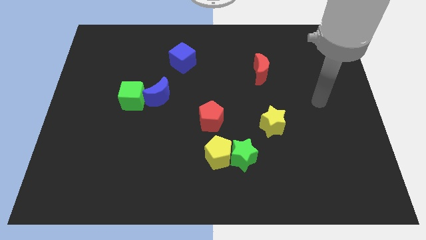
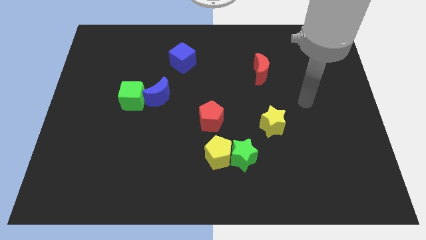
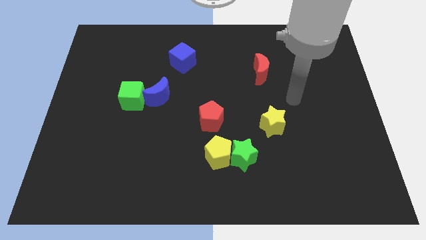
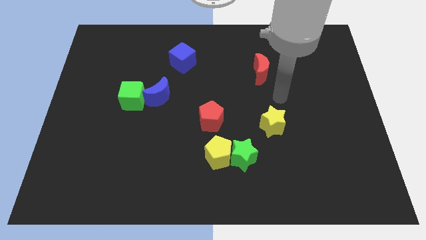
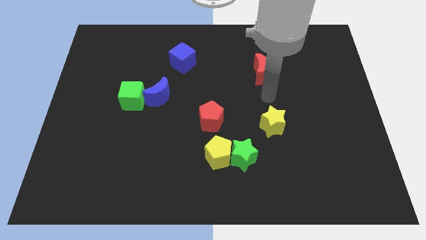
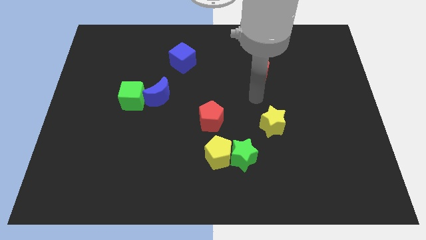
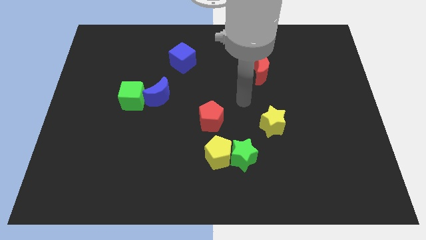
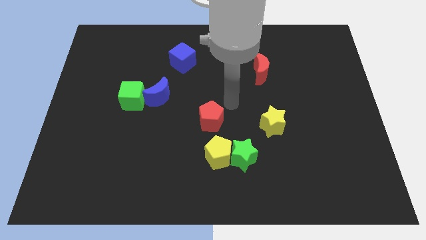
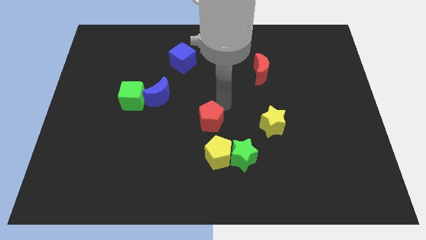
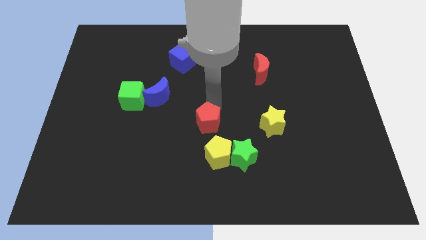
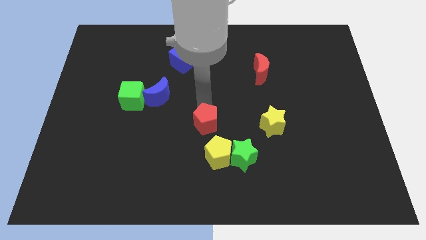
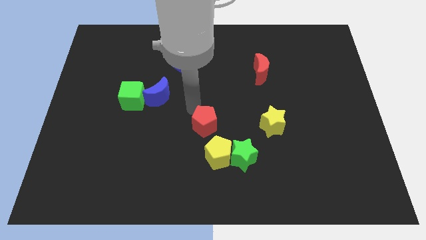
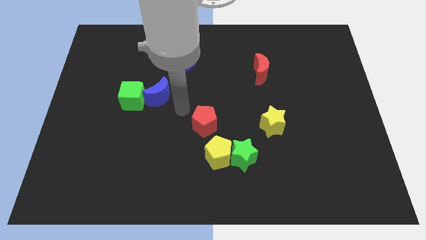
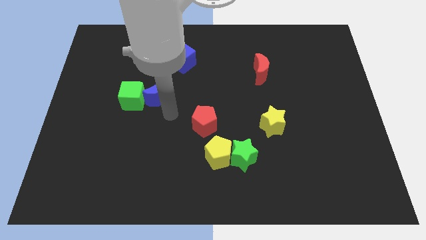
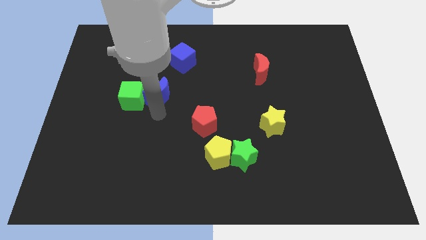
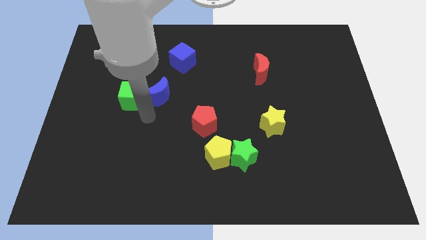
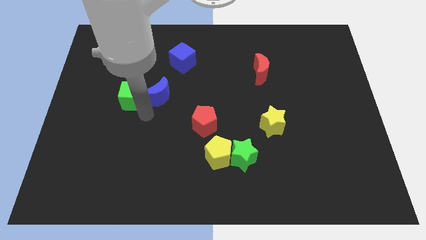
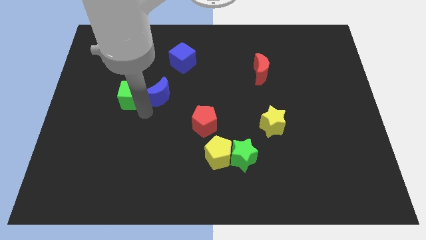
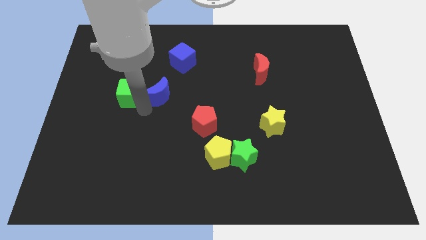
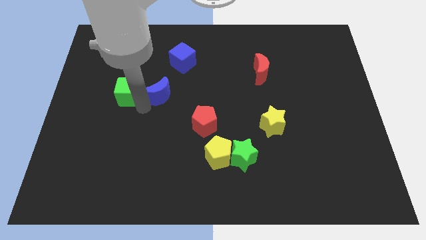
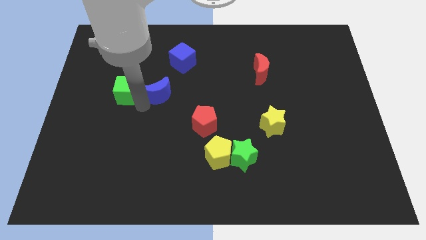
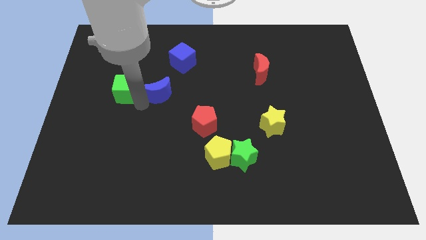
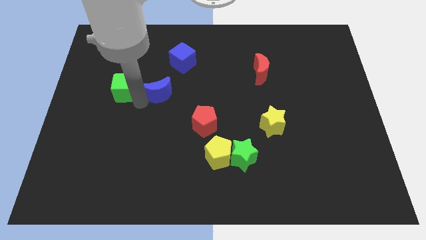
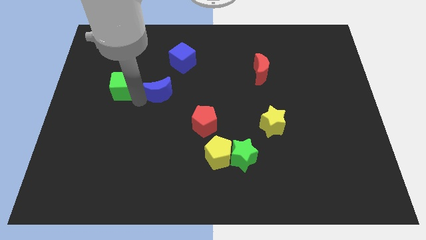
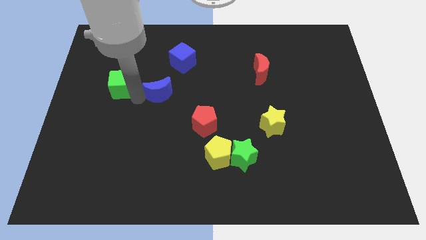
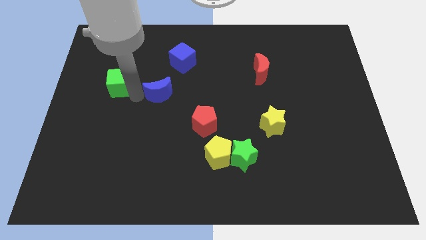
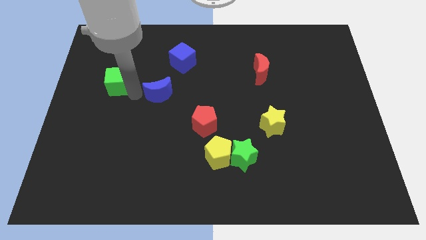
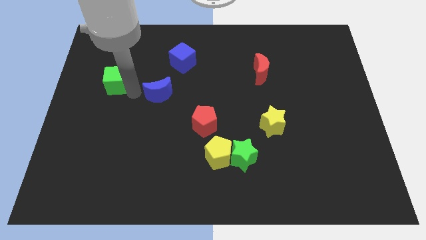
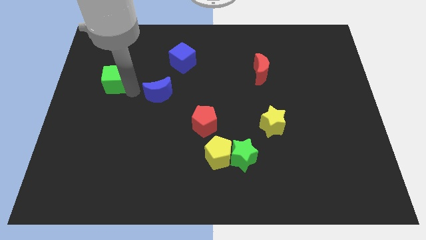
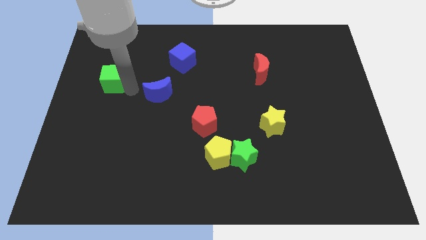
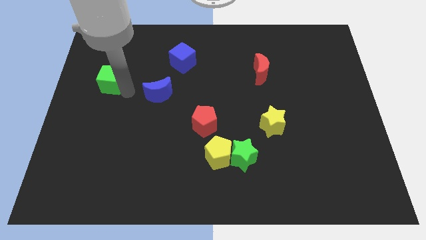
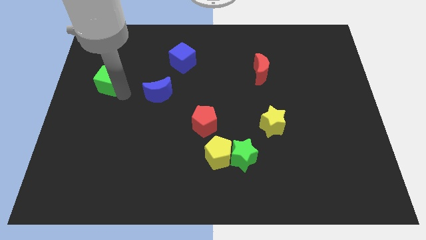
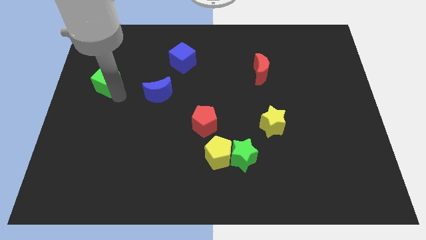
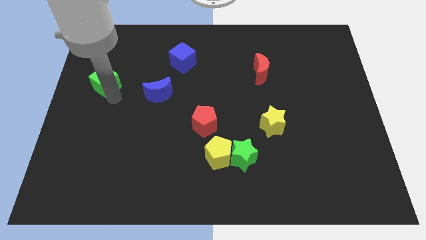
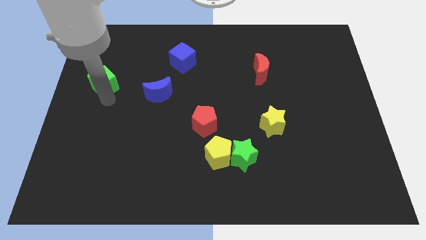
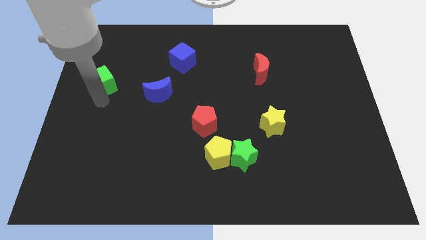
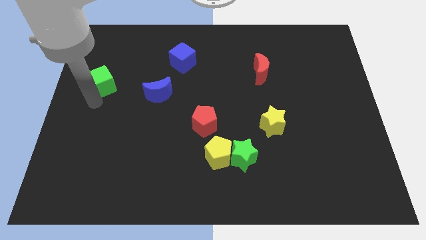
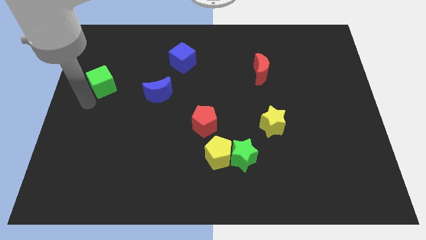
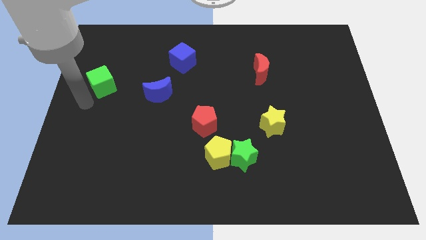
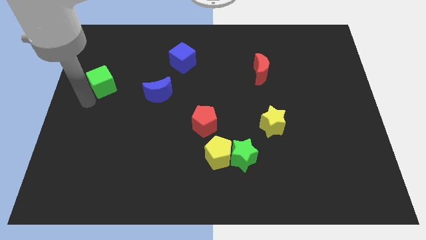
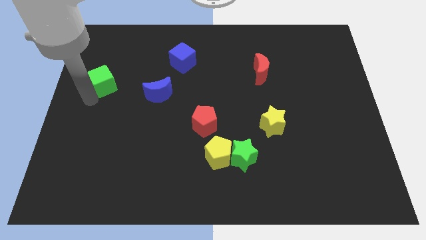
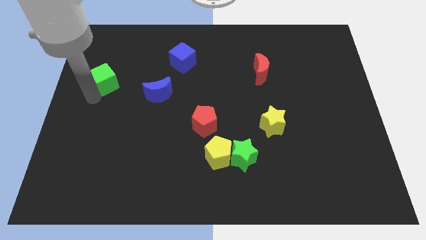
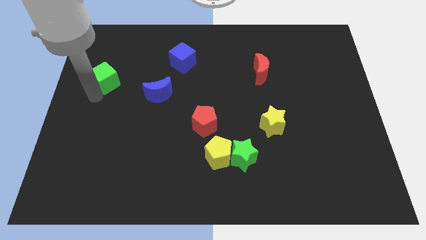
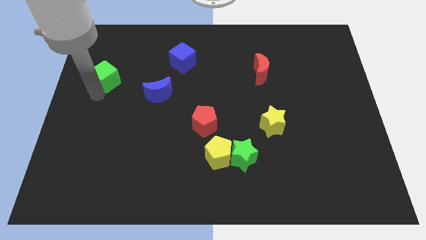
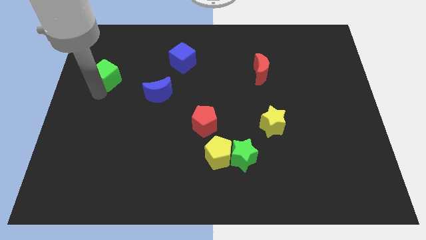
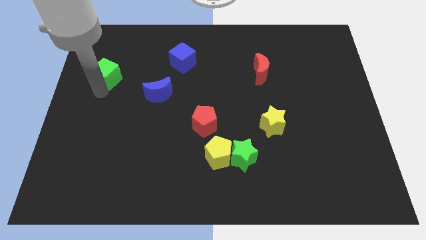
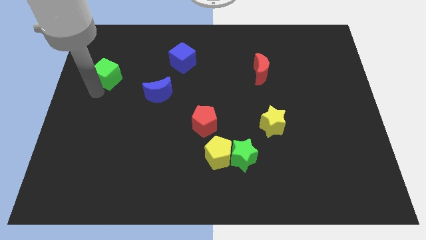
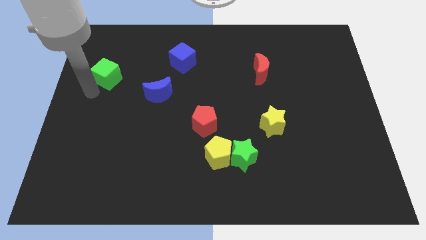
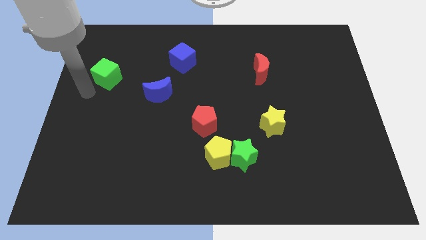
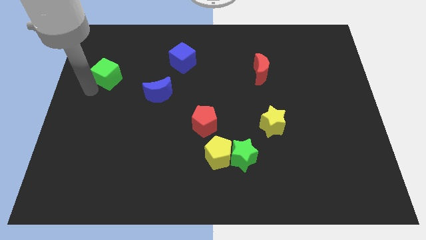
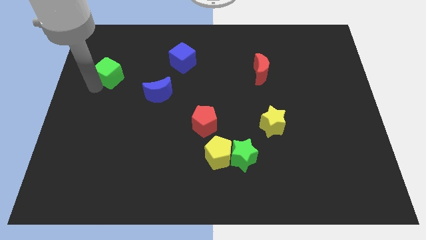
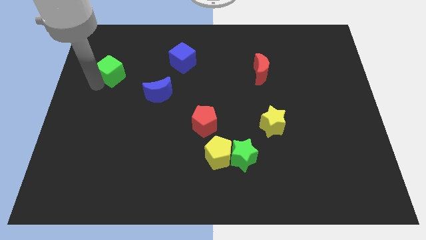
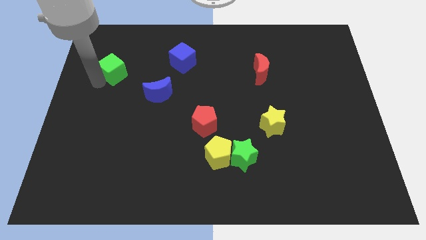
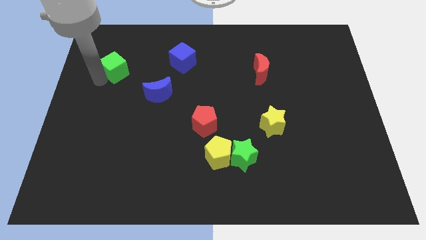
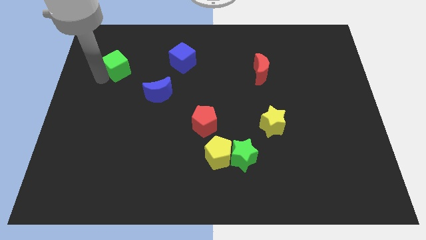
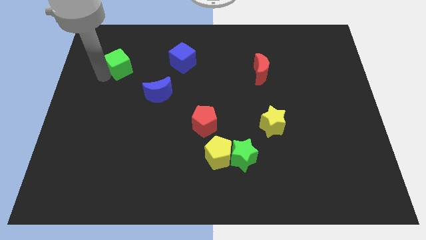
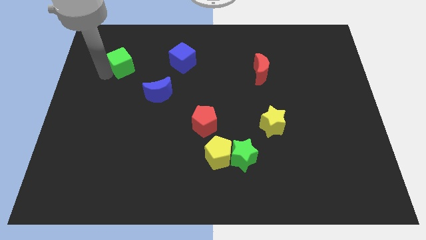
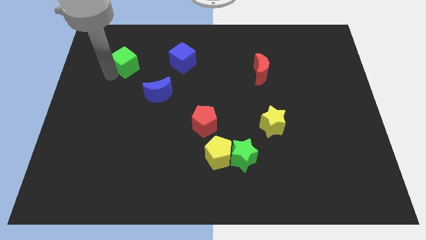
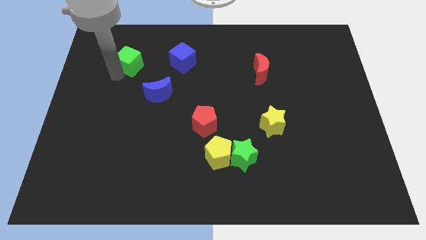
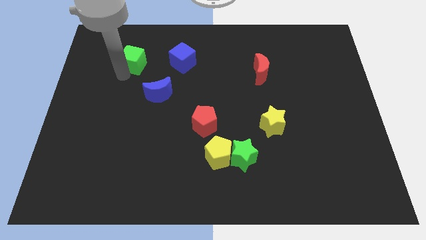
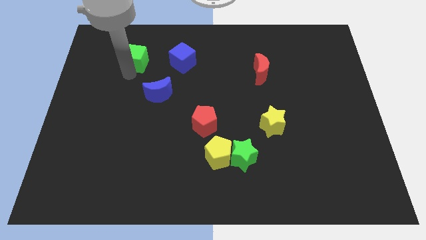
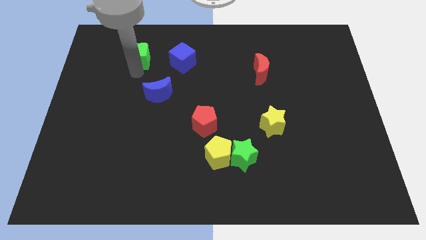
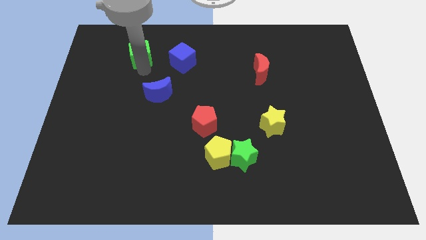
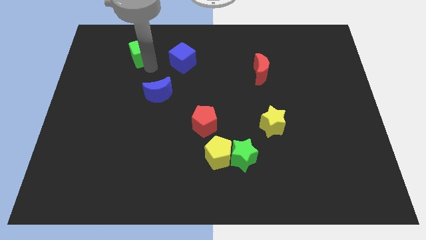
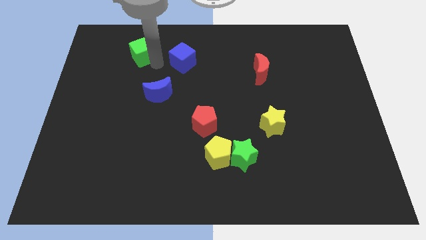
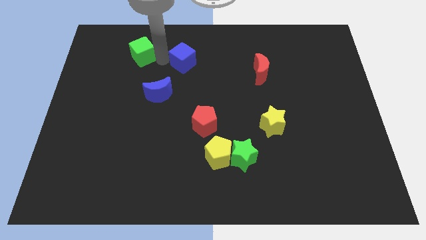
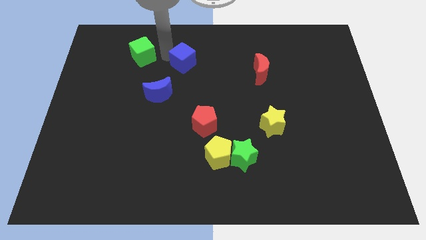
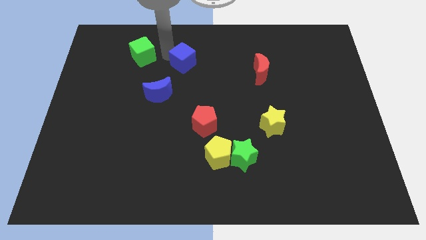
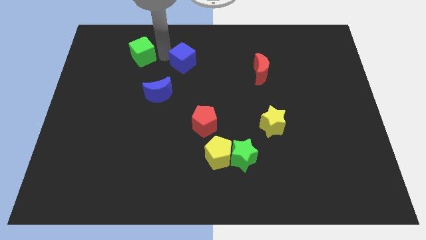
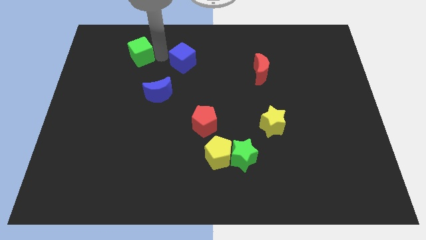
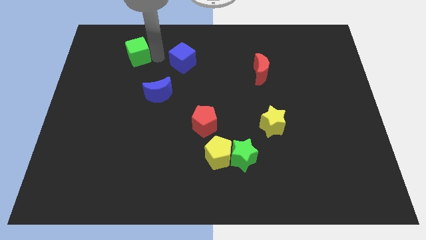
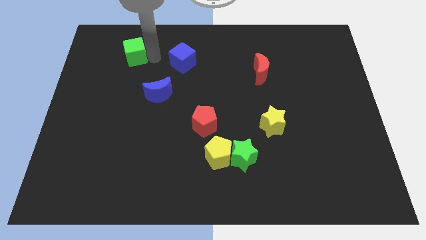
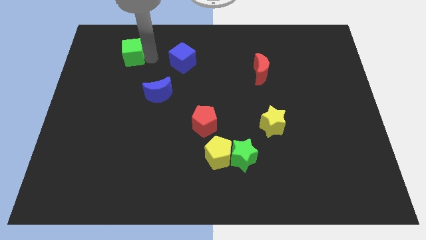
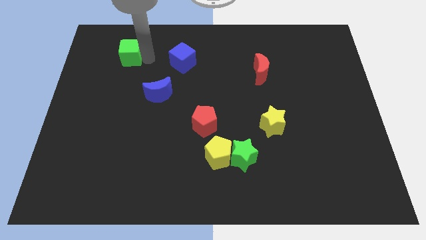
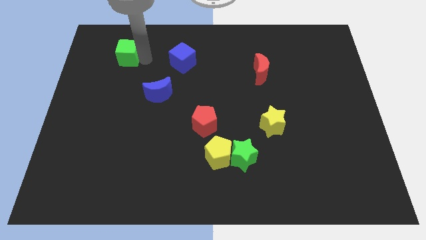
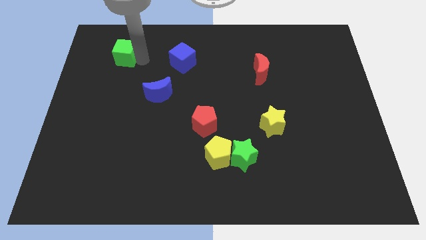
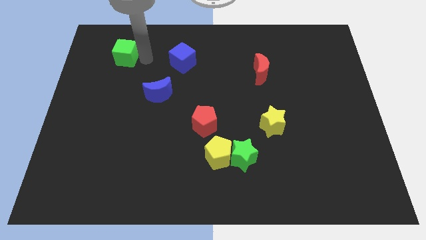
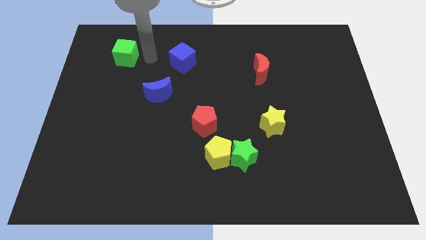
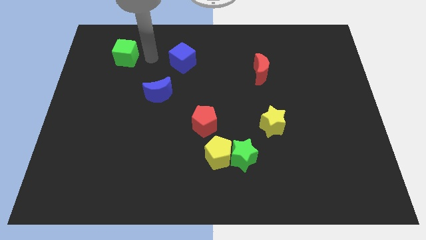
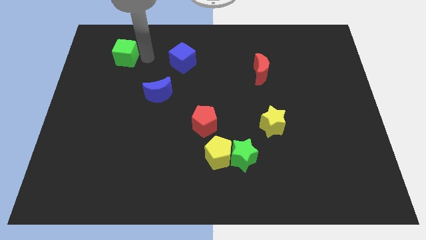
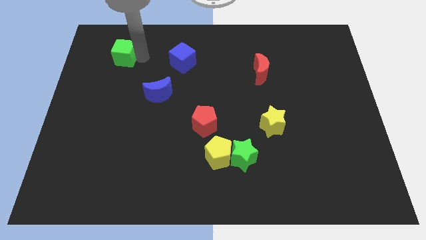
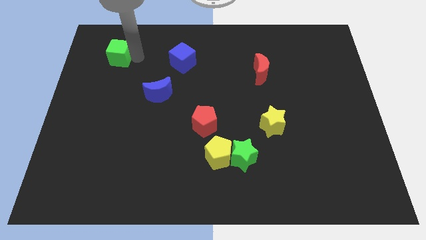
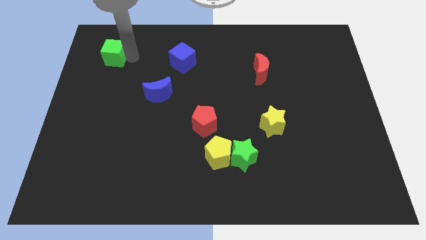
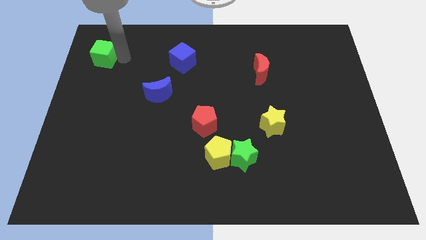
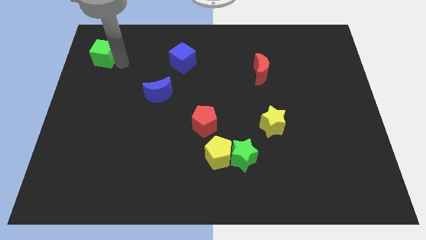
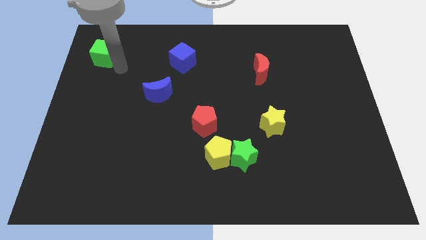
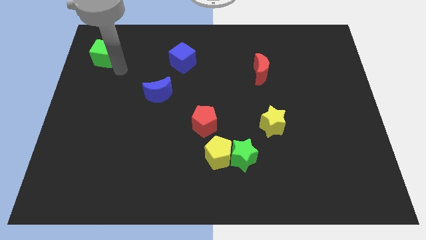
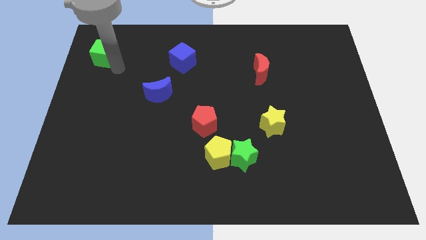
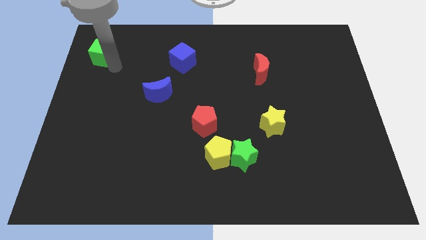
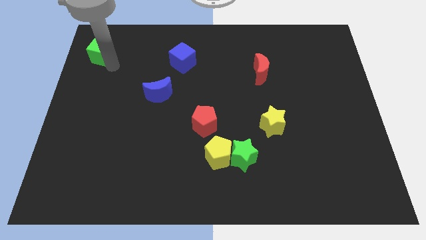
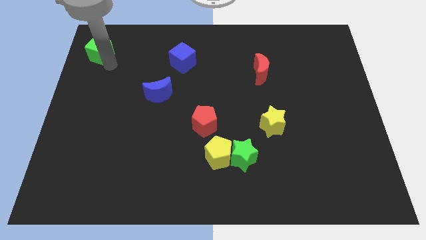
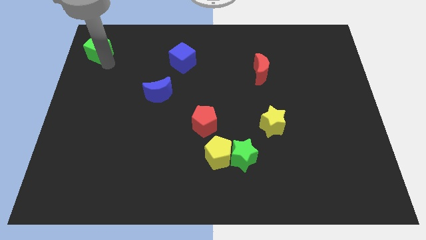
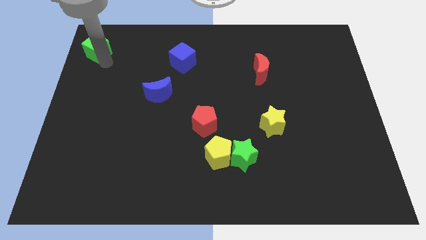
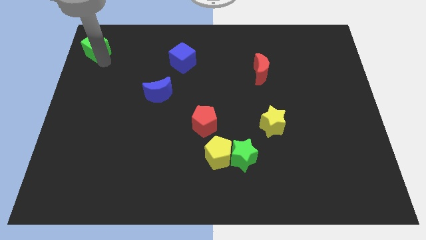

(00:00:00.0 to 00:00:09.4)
move the green cube to the top left corner
